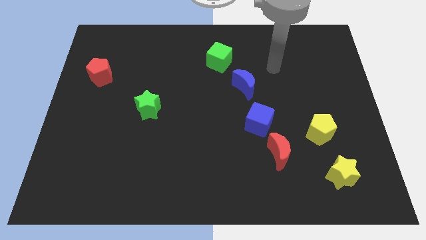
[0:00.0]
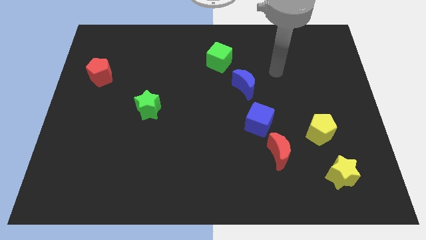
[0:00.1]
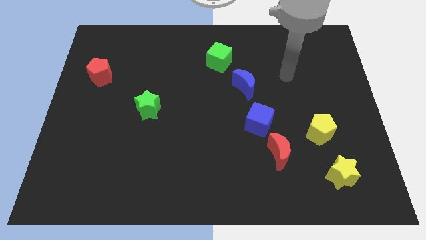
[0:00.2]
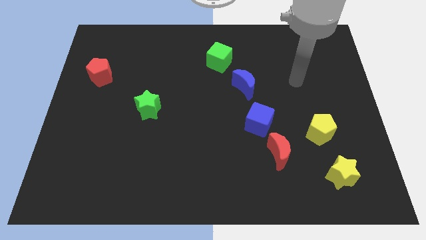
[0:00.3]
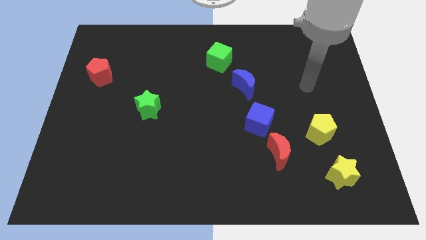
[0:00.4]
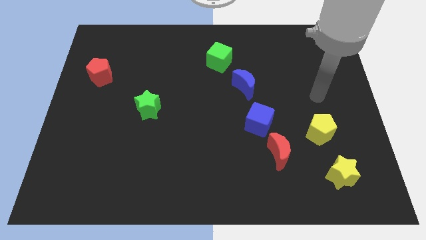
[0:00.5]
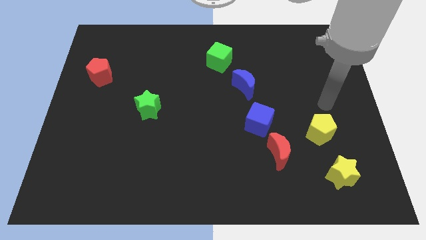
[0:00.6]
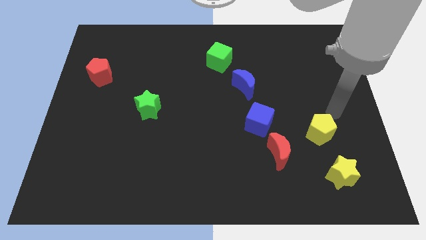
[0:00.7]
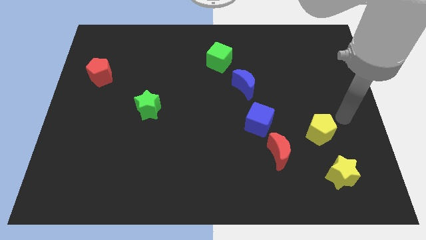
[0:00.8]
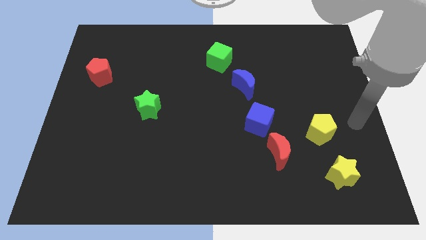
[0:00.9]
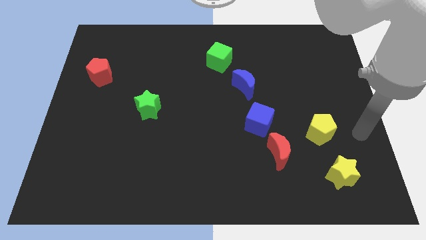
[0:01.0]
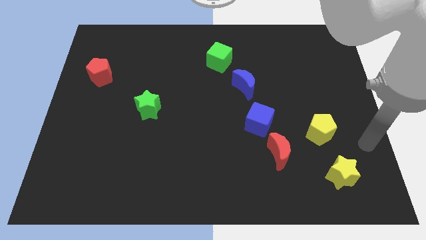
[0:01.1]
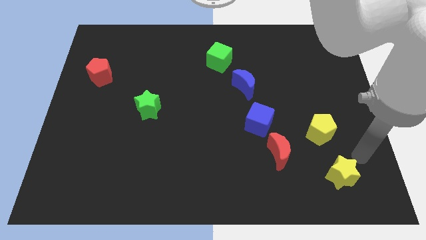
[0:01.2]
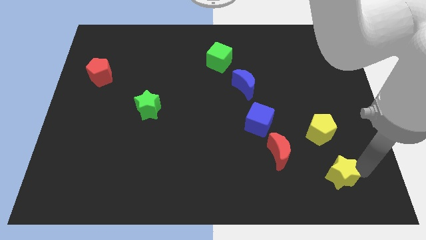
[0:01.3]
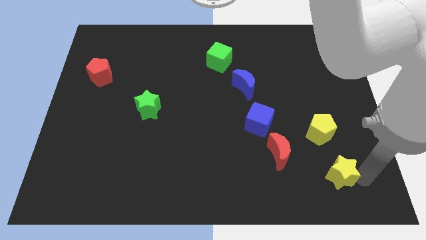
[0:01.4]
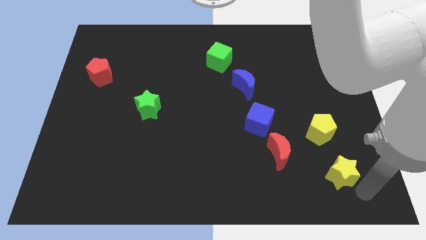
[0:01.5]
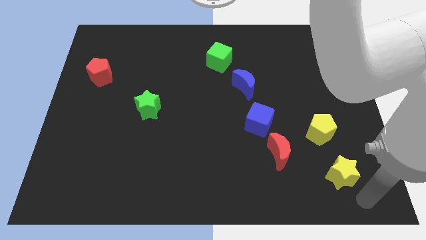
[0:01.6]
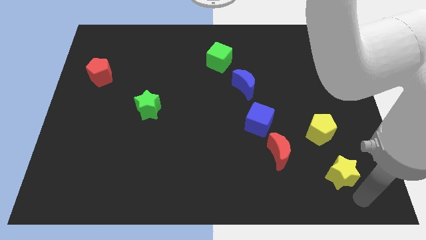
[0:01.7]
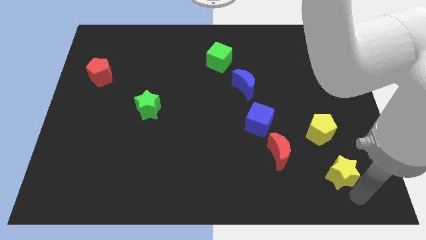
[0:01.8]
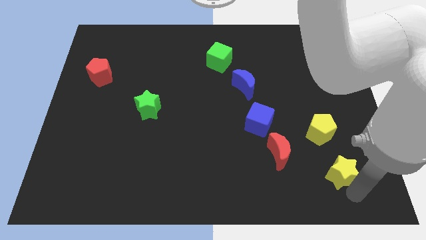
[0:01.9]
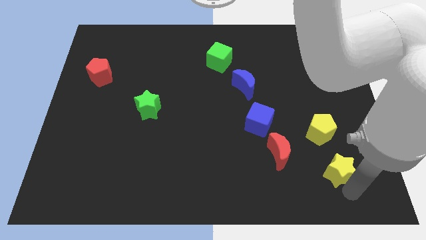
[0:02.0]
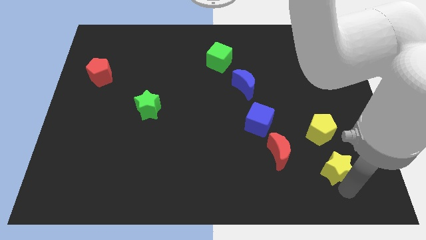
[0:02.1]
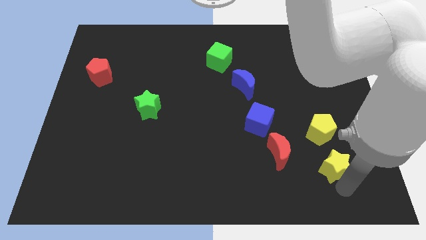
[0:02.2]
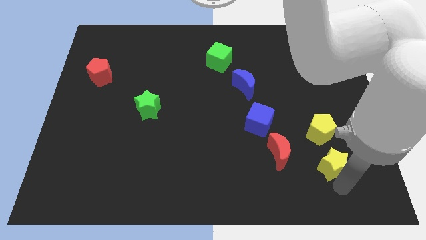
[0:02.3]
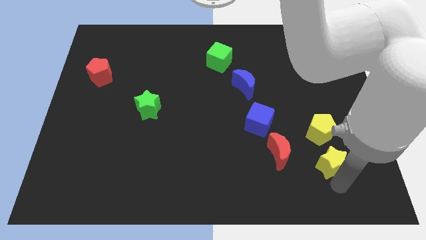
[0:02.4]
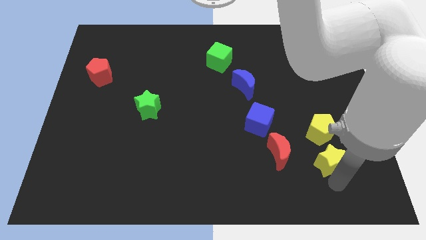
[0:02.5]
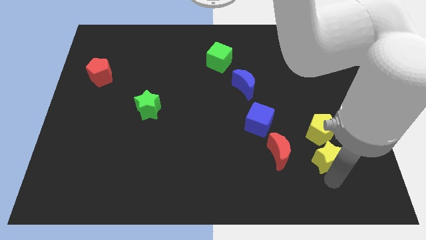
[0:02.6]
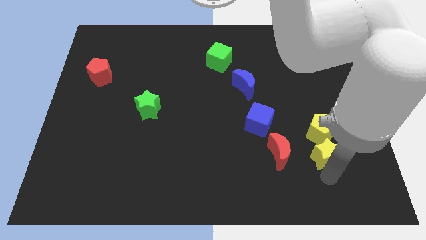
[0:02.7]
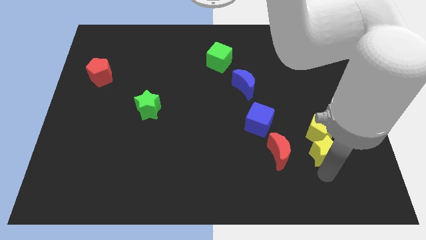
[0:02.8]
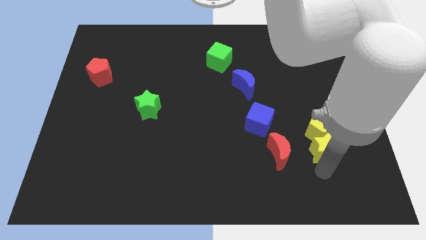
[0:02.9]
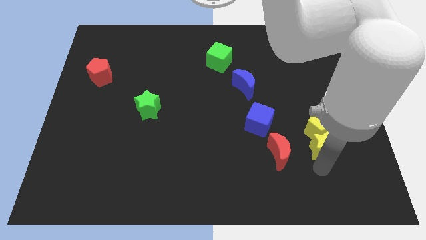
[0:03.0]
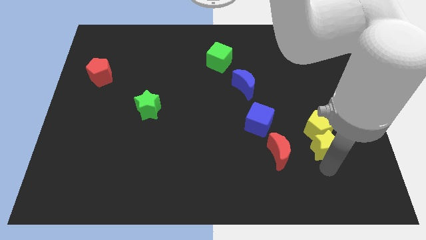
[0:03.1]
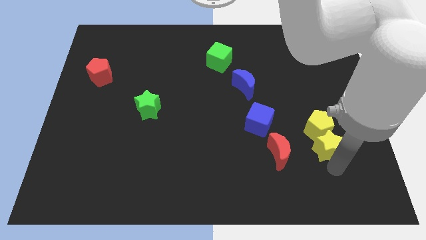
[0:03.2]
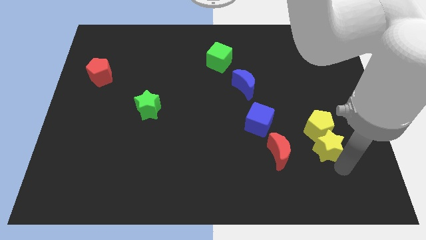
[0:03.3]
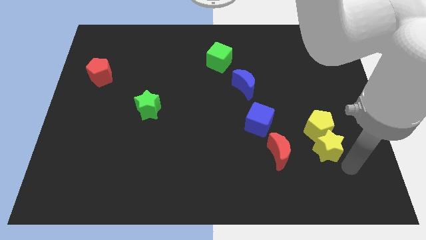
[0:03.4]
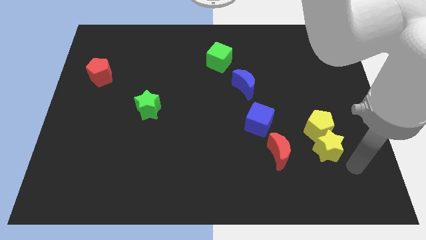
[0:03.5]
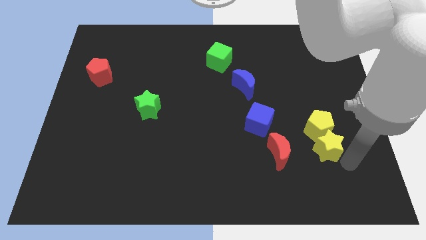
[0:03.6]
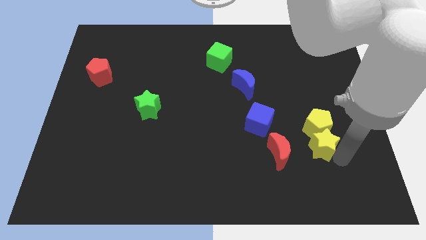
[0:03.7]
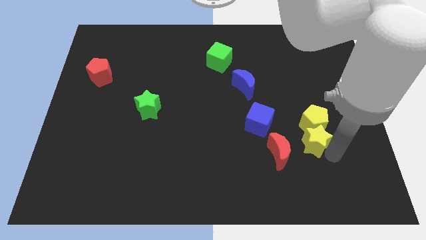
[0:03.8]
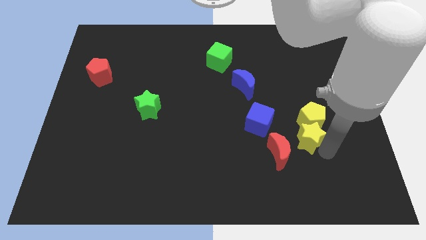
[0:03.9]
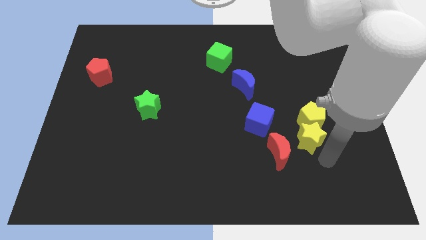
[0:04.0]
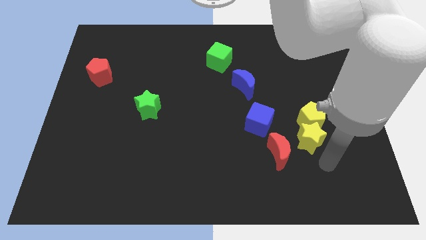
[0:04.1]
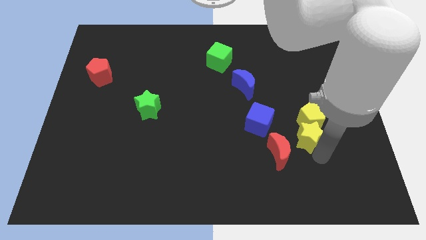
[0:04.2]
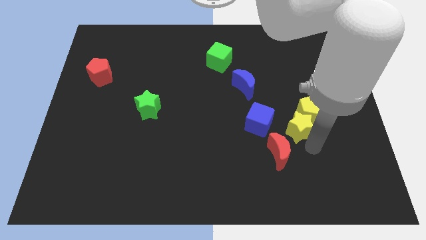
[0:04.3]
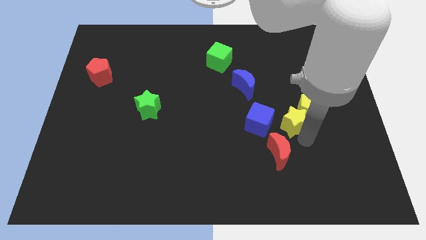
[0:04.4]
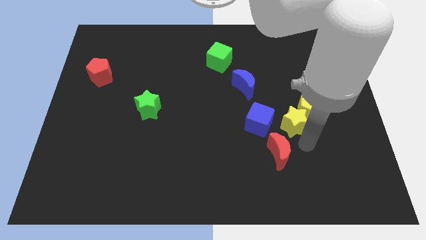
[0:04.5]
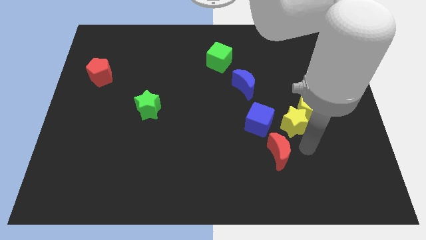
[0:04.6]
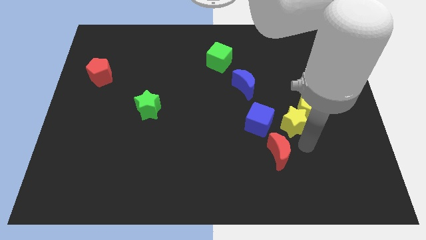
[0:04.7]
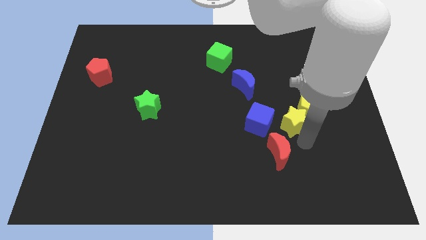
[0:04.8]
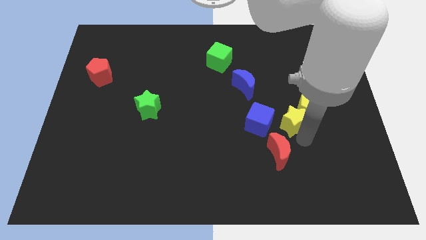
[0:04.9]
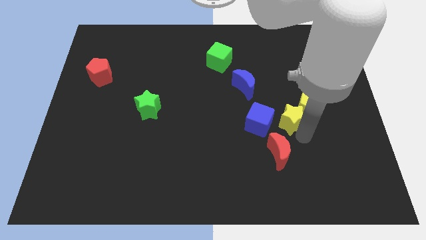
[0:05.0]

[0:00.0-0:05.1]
slide the yellow star to the top right of the blue cube

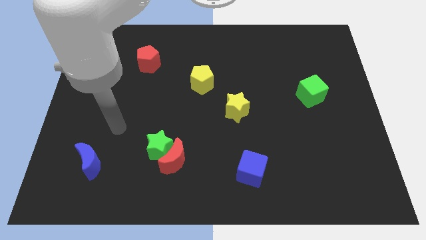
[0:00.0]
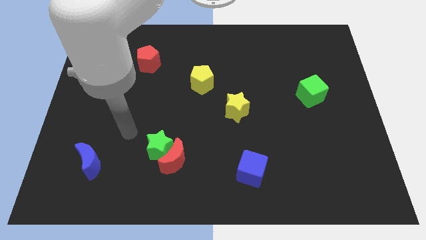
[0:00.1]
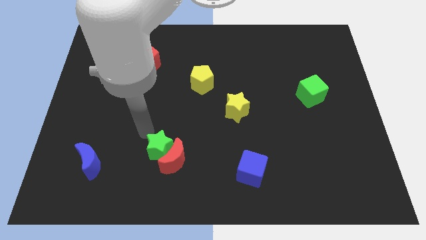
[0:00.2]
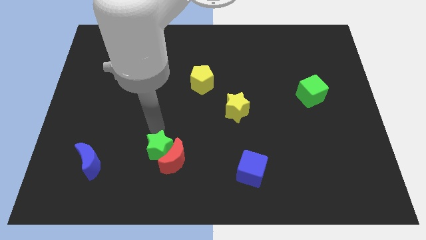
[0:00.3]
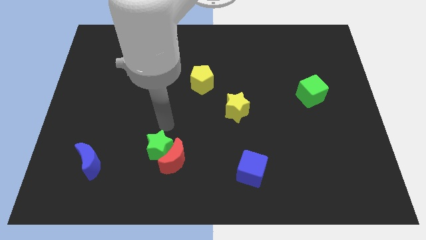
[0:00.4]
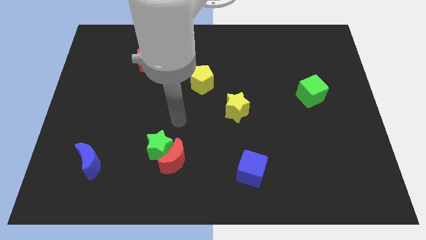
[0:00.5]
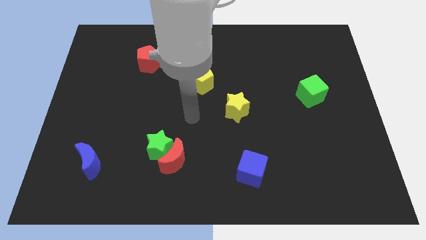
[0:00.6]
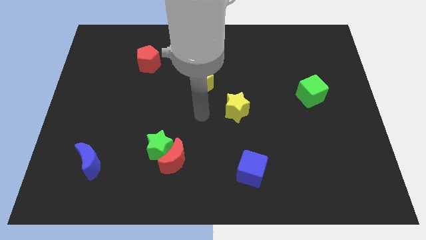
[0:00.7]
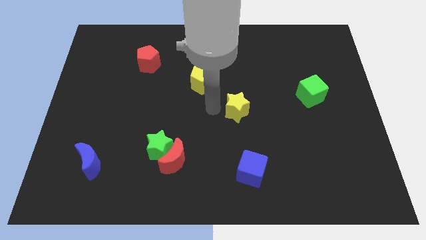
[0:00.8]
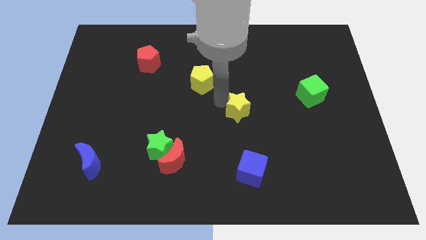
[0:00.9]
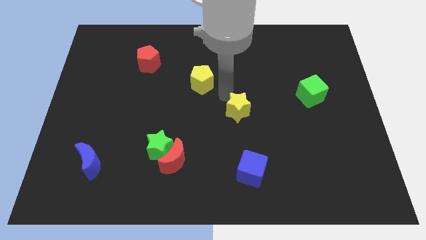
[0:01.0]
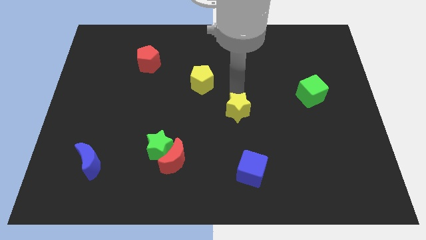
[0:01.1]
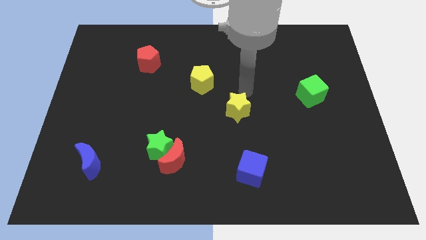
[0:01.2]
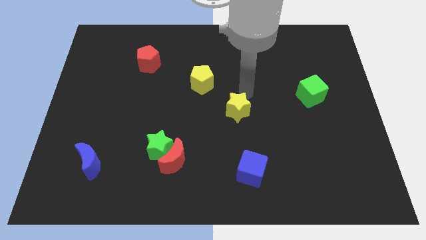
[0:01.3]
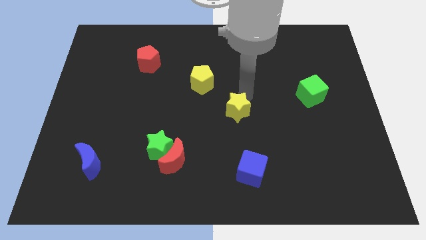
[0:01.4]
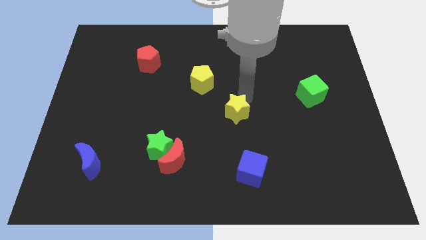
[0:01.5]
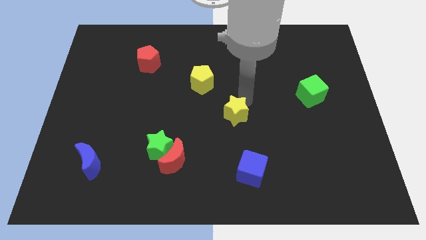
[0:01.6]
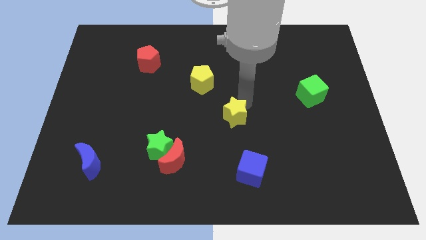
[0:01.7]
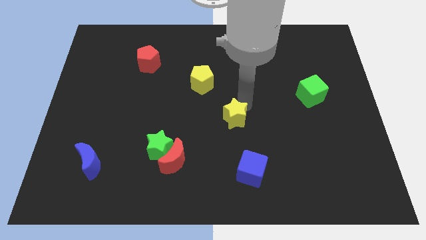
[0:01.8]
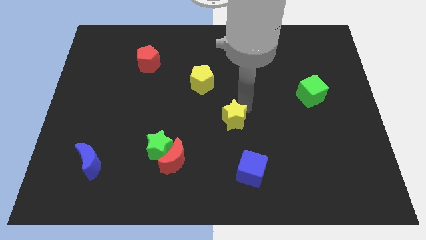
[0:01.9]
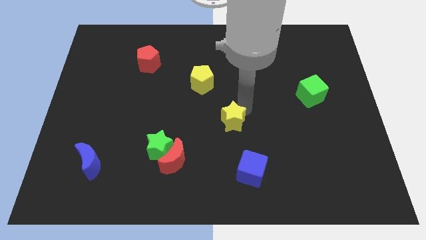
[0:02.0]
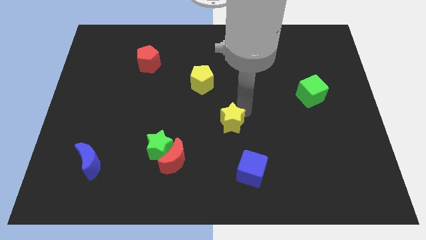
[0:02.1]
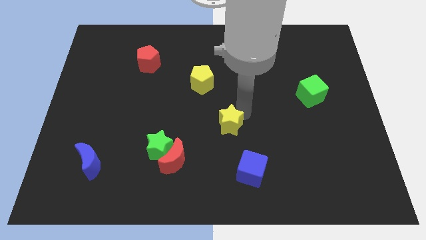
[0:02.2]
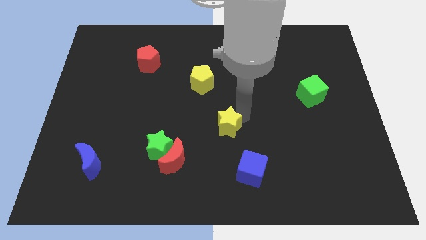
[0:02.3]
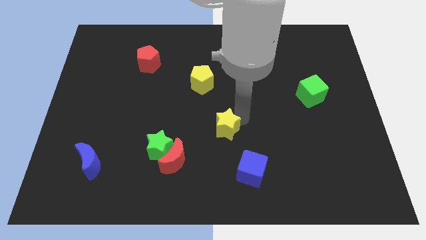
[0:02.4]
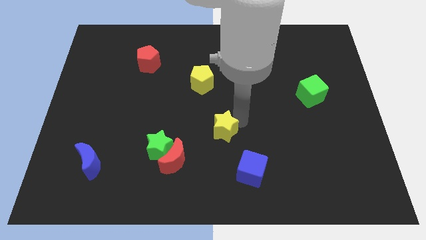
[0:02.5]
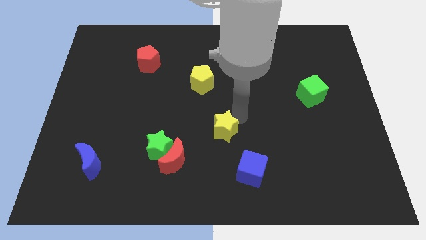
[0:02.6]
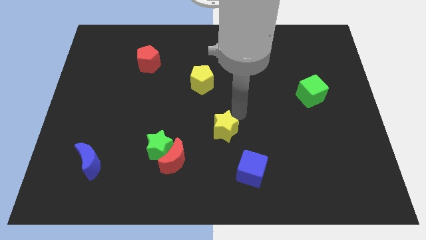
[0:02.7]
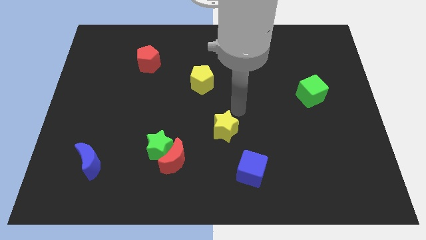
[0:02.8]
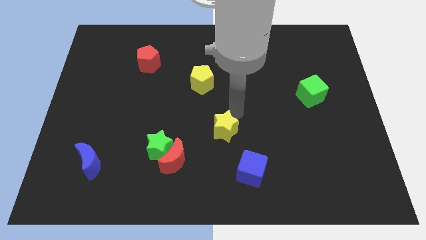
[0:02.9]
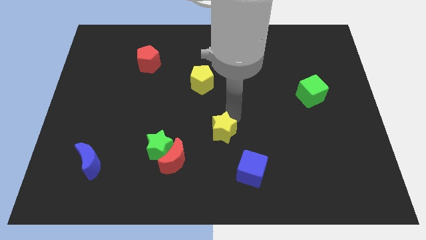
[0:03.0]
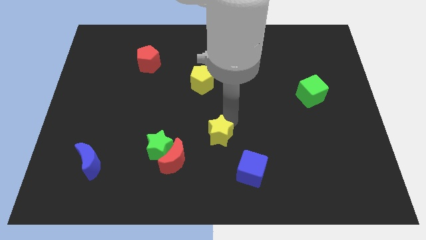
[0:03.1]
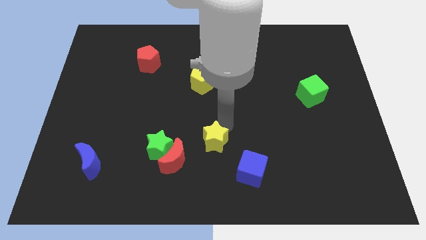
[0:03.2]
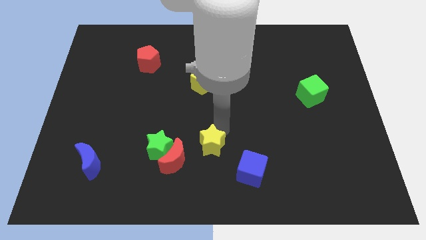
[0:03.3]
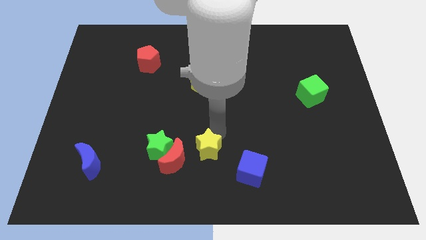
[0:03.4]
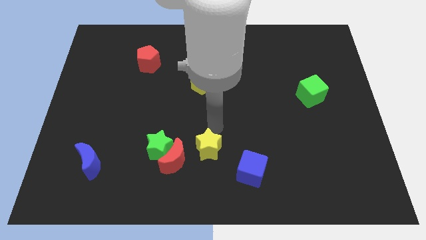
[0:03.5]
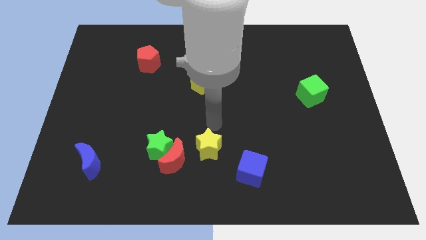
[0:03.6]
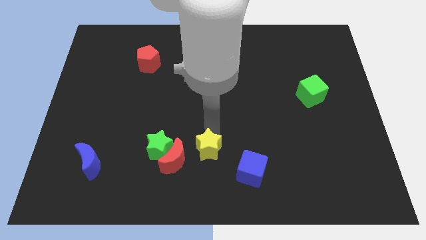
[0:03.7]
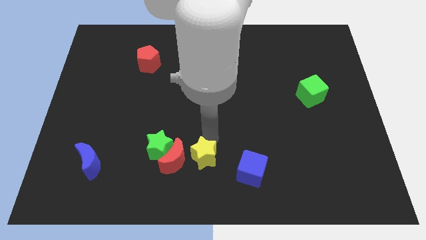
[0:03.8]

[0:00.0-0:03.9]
push the yellow star to the bottom right of the red moon
